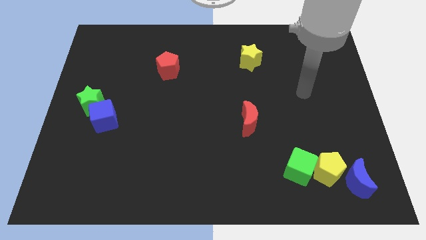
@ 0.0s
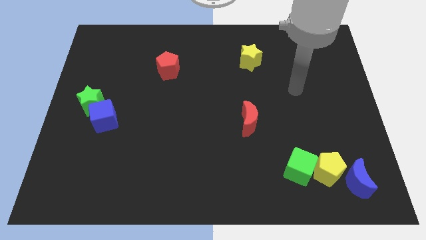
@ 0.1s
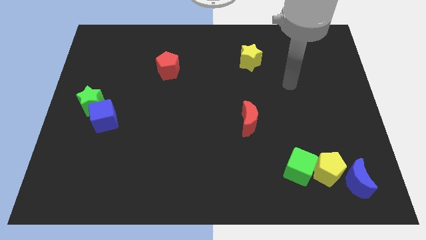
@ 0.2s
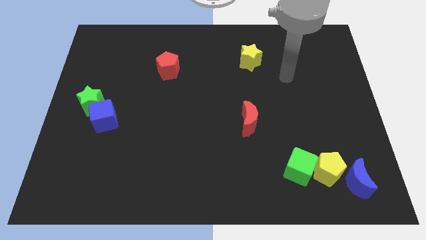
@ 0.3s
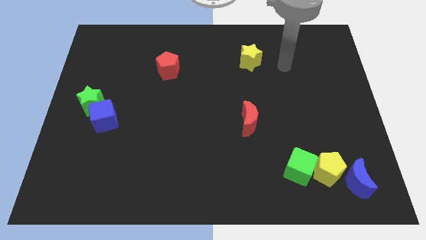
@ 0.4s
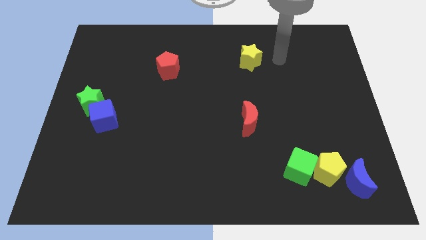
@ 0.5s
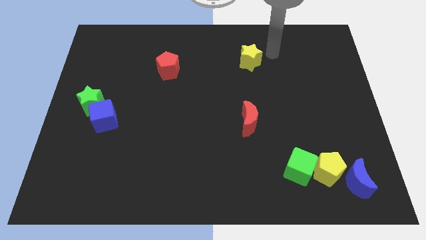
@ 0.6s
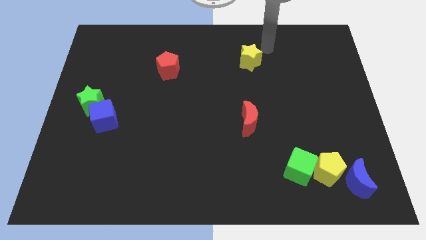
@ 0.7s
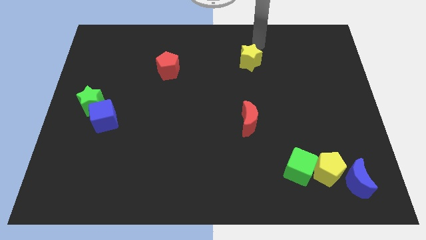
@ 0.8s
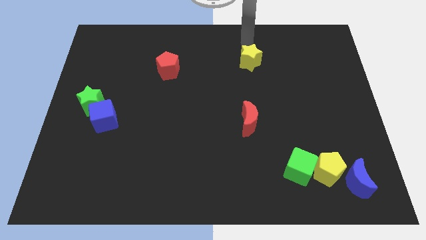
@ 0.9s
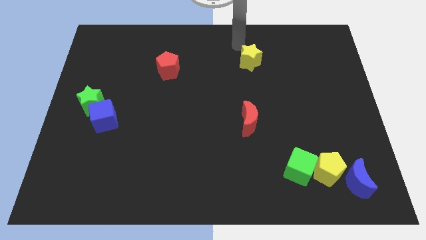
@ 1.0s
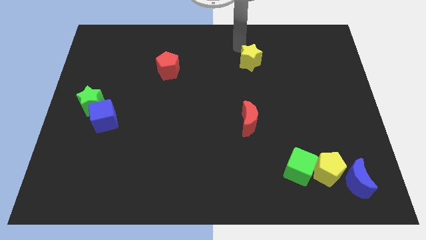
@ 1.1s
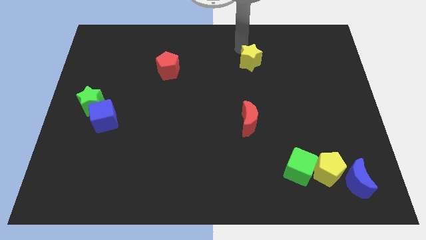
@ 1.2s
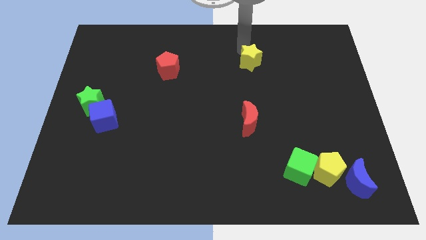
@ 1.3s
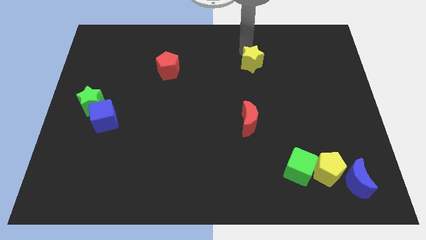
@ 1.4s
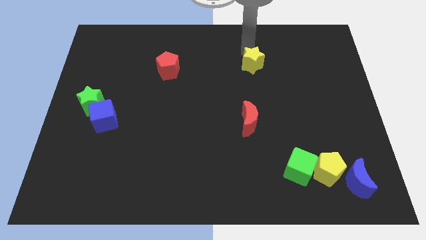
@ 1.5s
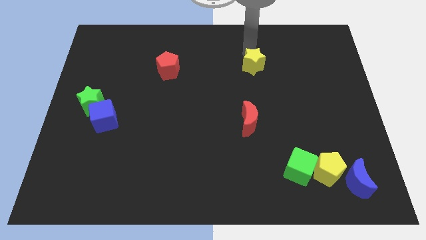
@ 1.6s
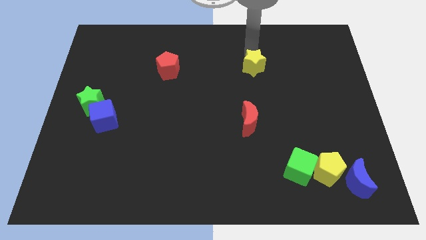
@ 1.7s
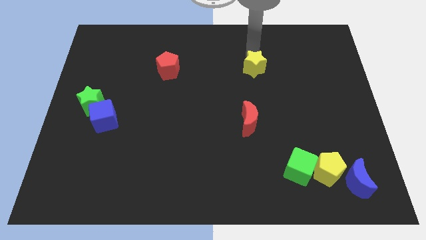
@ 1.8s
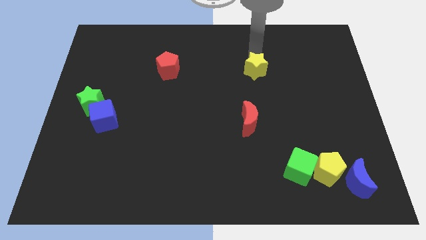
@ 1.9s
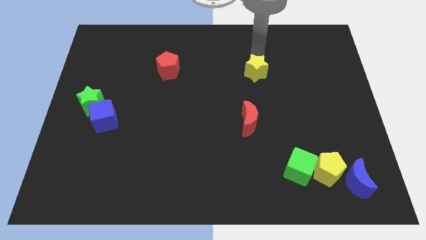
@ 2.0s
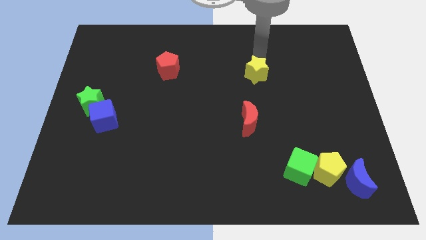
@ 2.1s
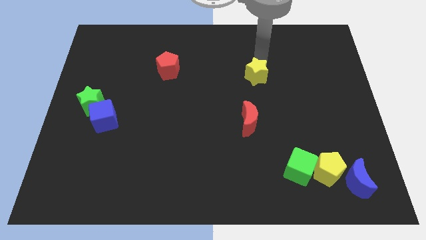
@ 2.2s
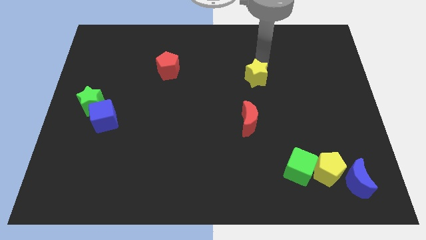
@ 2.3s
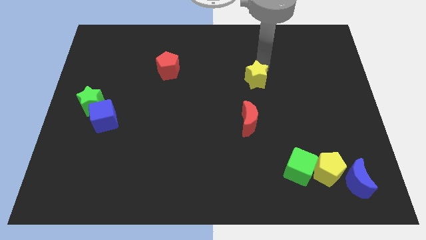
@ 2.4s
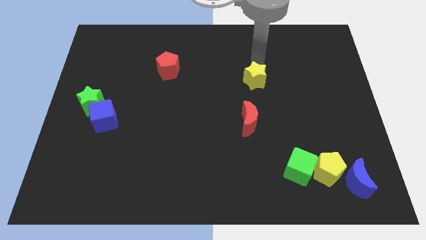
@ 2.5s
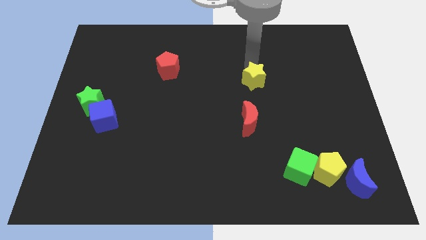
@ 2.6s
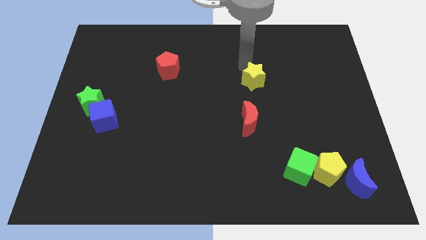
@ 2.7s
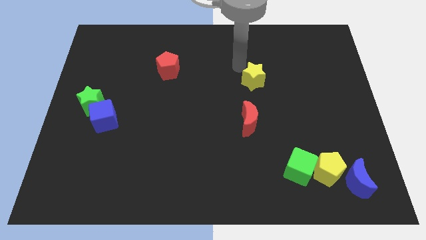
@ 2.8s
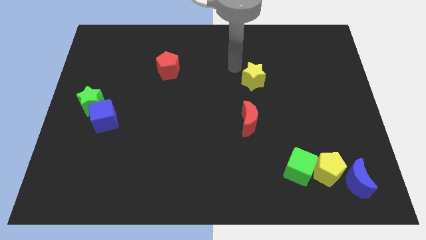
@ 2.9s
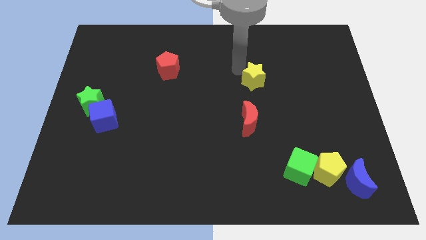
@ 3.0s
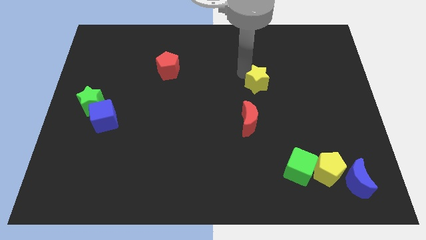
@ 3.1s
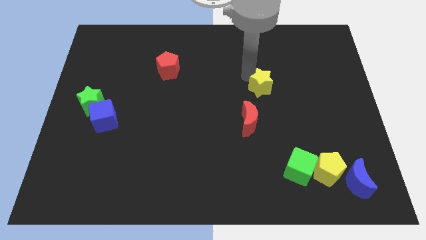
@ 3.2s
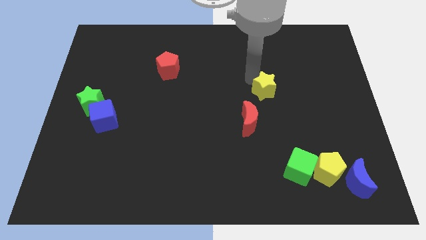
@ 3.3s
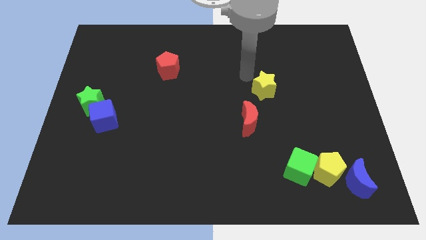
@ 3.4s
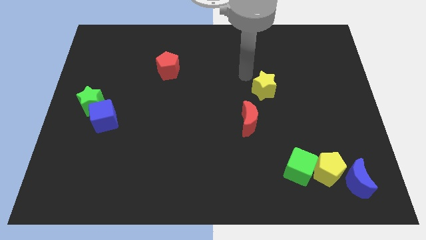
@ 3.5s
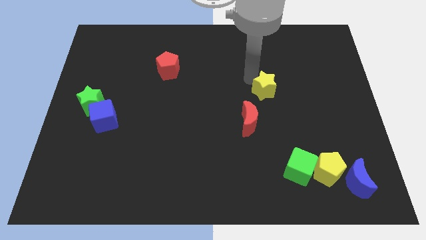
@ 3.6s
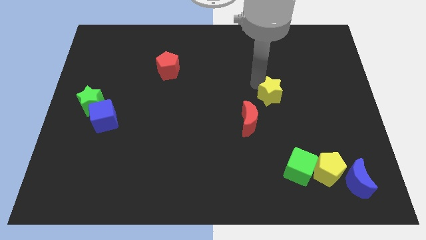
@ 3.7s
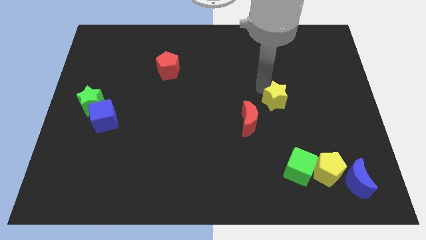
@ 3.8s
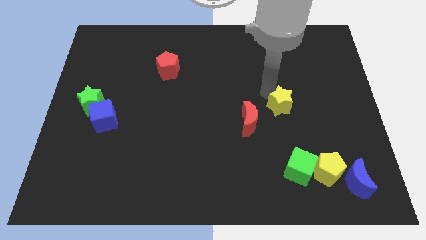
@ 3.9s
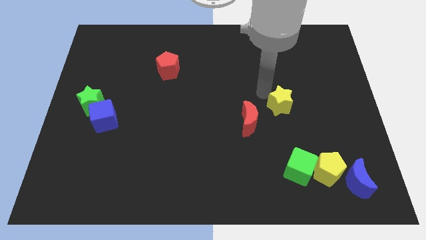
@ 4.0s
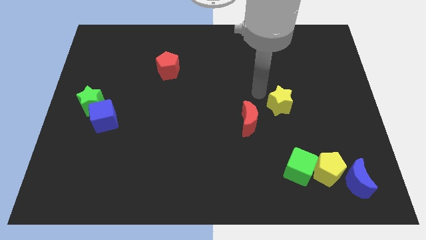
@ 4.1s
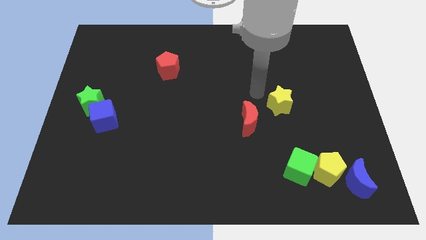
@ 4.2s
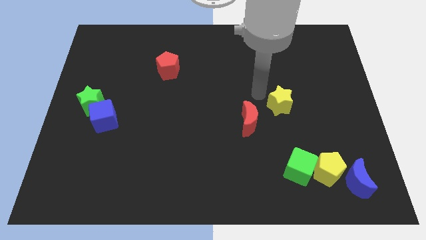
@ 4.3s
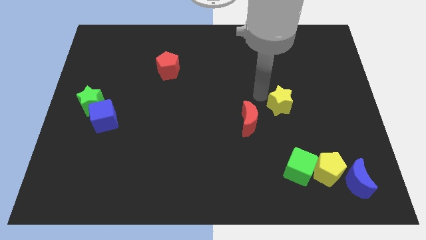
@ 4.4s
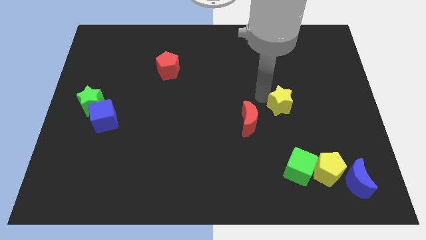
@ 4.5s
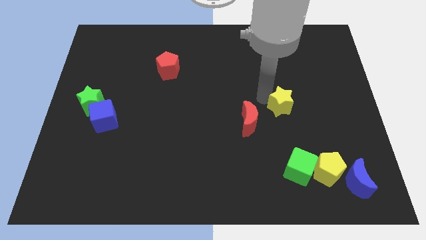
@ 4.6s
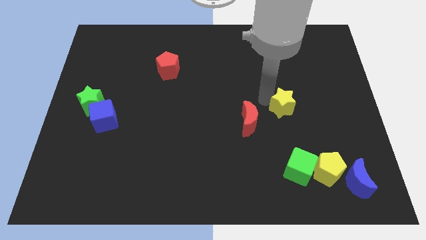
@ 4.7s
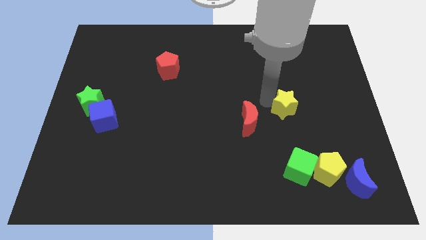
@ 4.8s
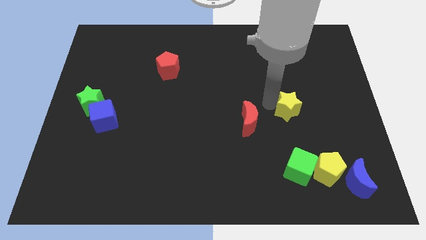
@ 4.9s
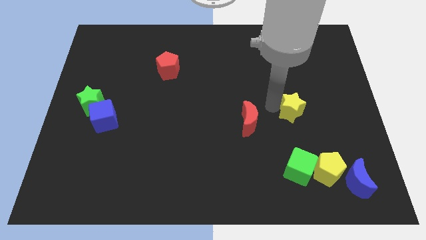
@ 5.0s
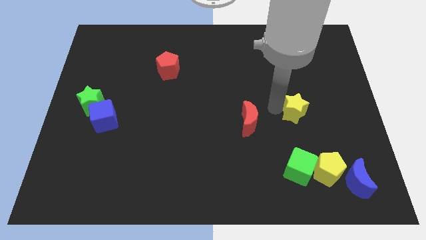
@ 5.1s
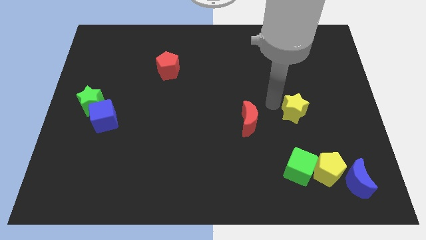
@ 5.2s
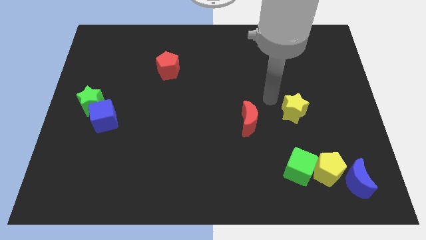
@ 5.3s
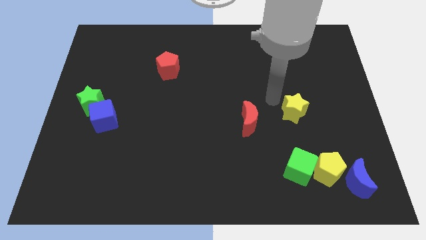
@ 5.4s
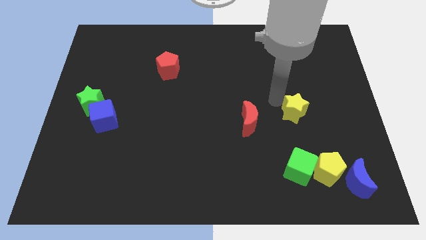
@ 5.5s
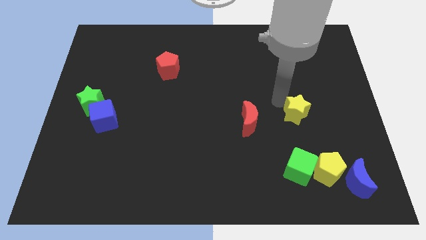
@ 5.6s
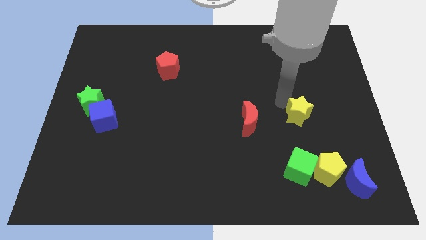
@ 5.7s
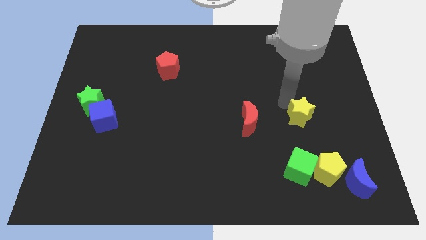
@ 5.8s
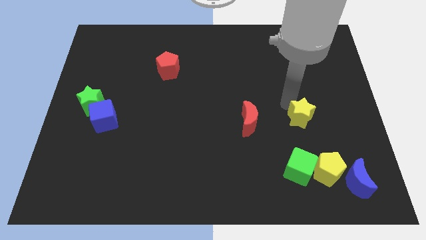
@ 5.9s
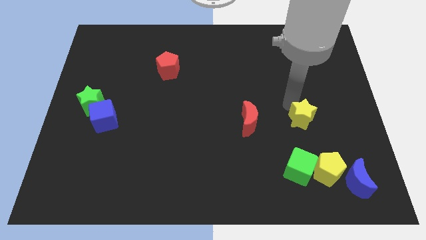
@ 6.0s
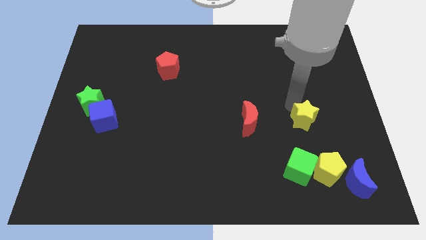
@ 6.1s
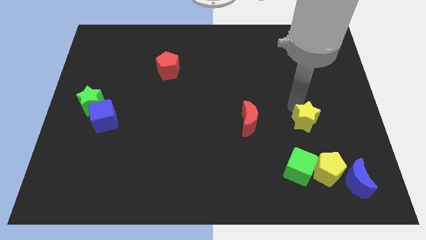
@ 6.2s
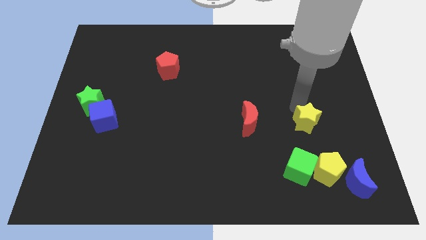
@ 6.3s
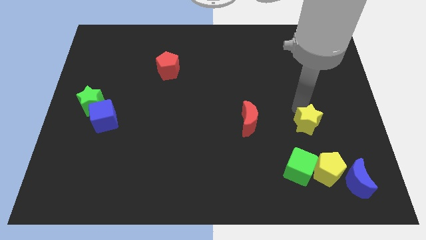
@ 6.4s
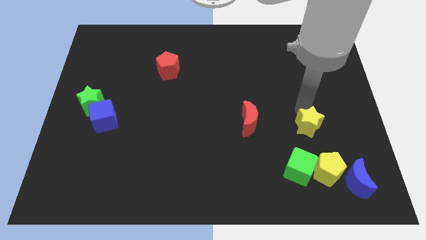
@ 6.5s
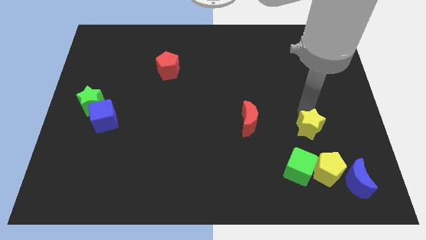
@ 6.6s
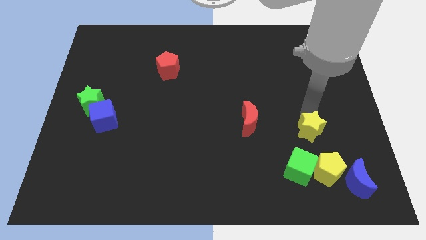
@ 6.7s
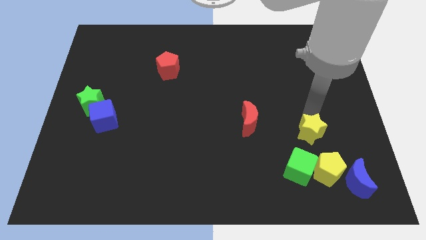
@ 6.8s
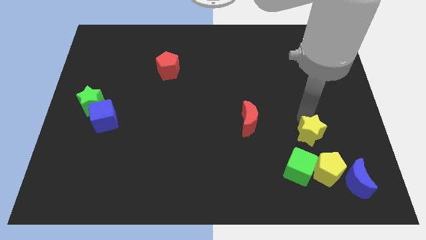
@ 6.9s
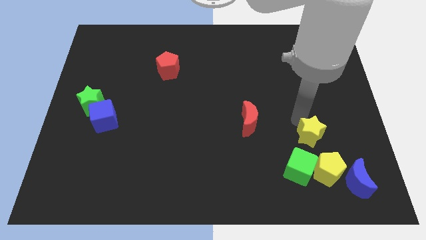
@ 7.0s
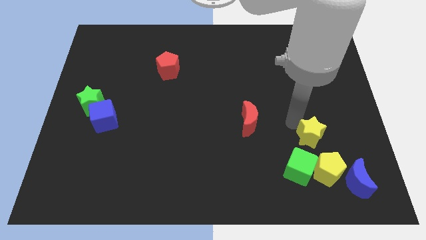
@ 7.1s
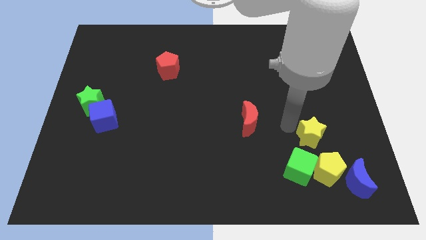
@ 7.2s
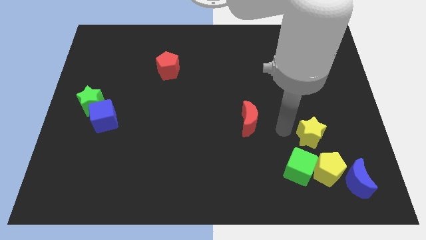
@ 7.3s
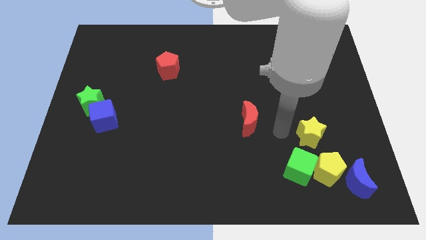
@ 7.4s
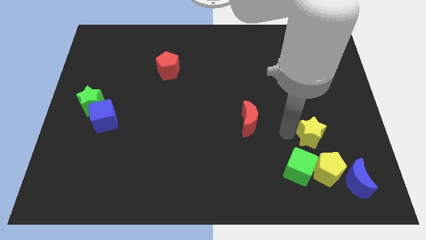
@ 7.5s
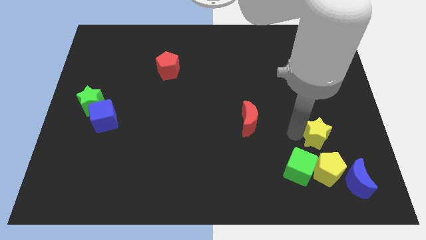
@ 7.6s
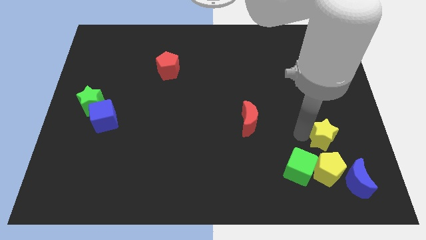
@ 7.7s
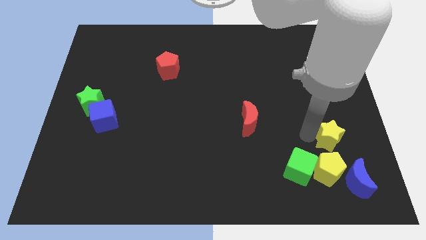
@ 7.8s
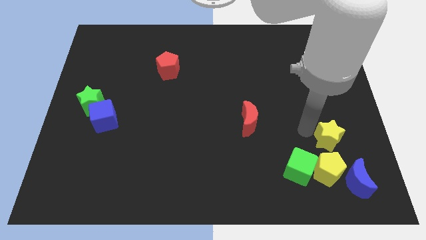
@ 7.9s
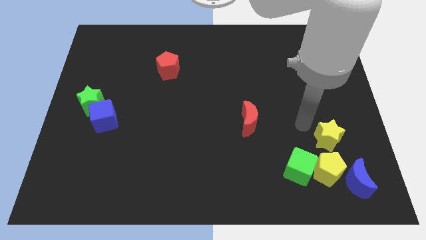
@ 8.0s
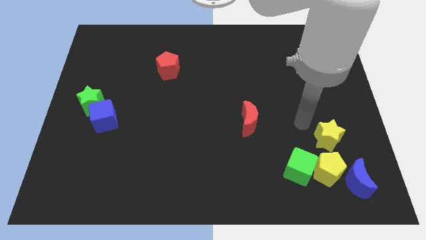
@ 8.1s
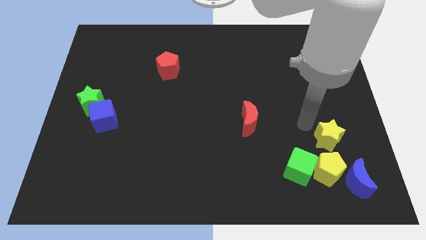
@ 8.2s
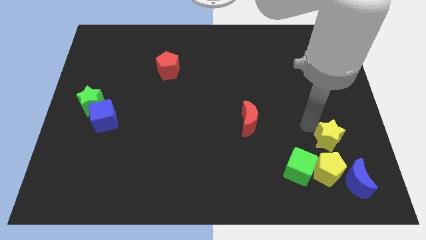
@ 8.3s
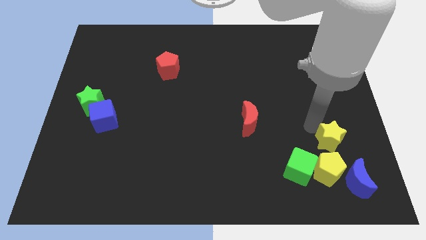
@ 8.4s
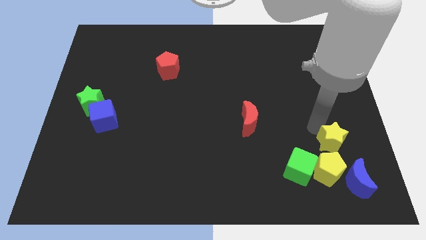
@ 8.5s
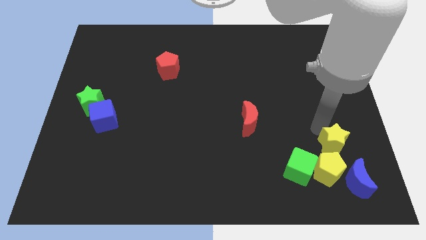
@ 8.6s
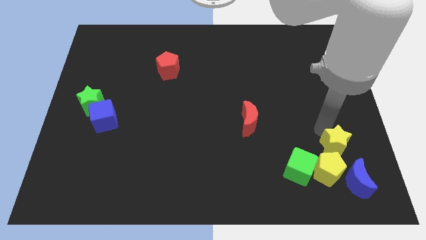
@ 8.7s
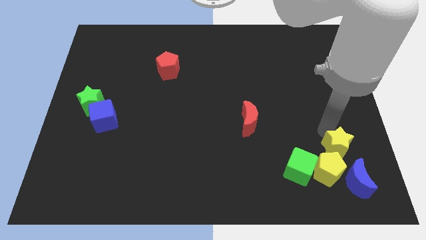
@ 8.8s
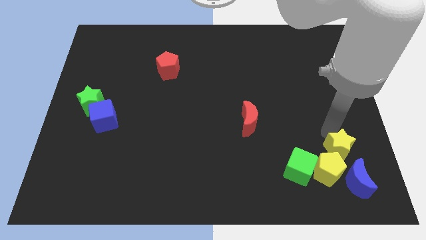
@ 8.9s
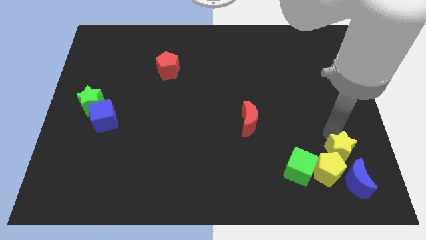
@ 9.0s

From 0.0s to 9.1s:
slide the yellow star just right of the green cube
